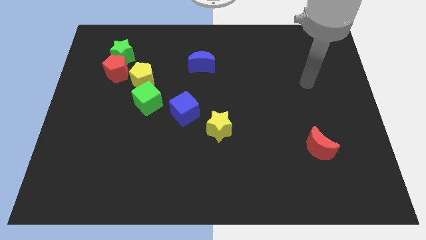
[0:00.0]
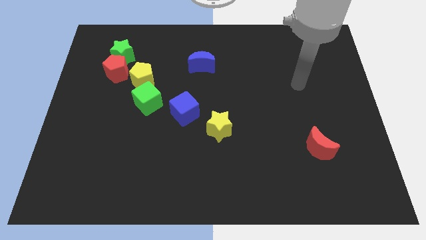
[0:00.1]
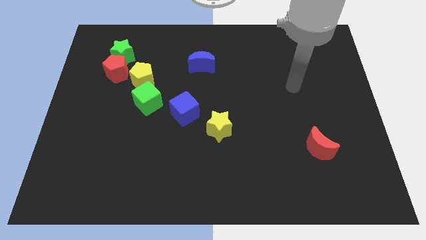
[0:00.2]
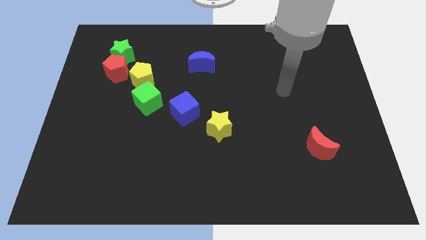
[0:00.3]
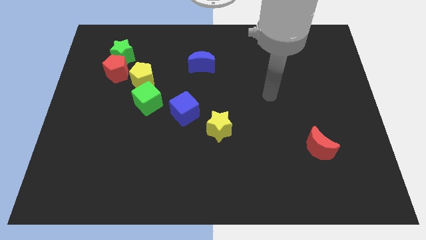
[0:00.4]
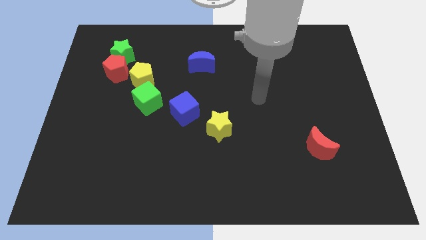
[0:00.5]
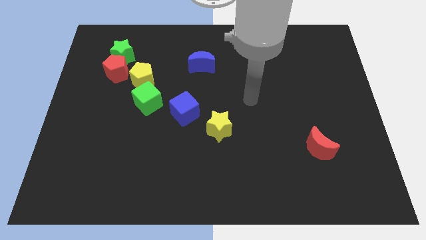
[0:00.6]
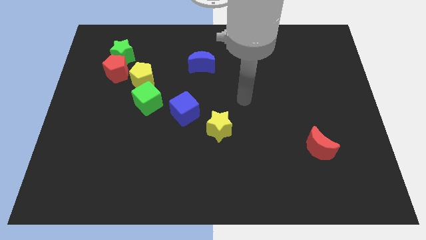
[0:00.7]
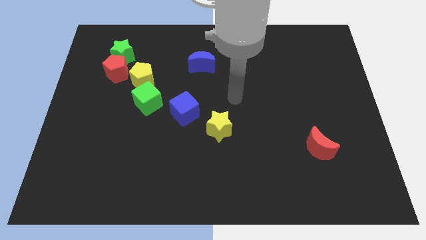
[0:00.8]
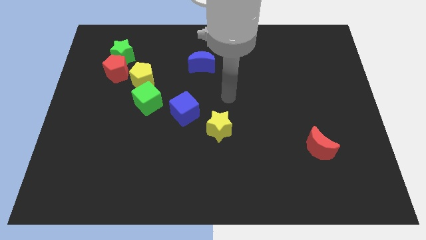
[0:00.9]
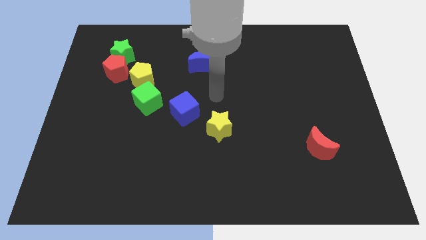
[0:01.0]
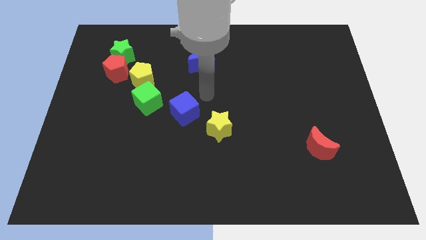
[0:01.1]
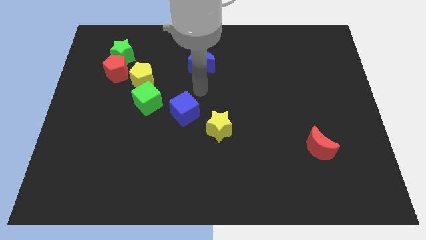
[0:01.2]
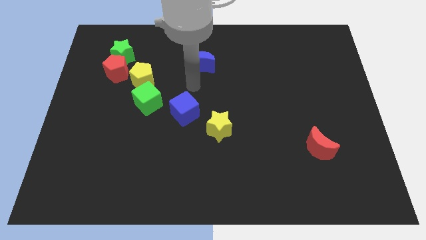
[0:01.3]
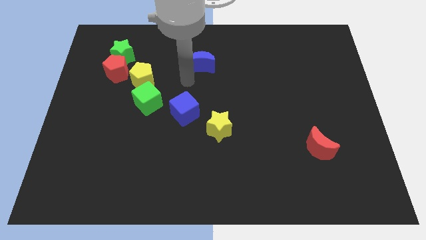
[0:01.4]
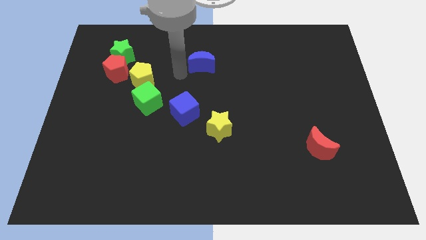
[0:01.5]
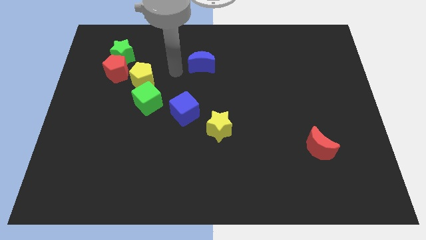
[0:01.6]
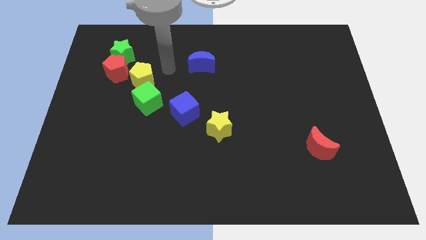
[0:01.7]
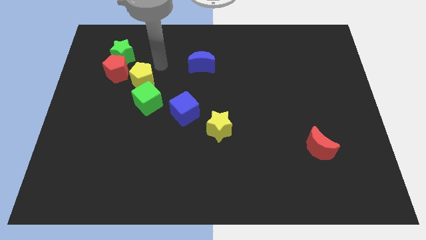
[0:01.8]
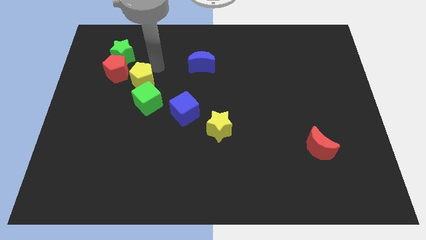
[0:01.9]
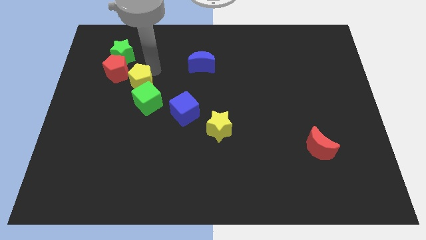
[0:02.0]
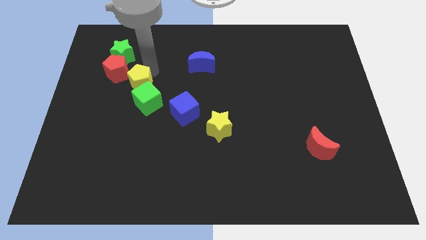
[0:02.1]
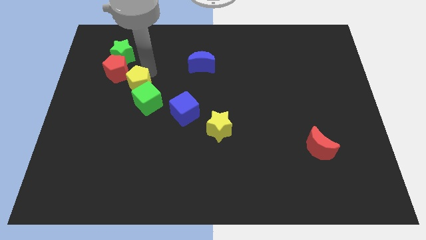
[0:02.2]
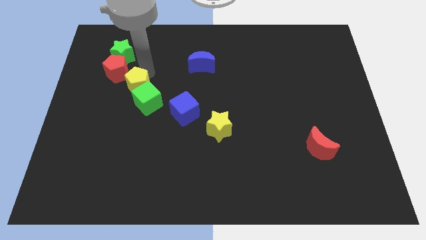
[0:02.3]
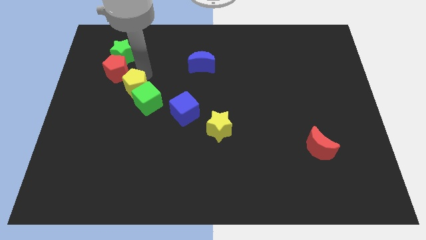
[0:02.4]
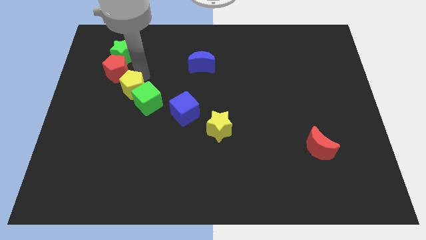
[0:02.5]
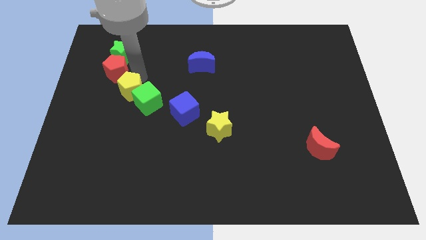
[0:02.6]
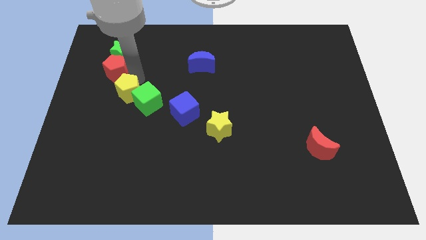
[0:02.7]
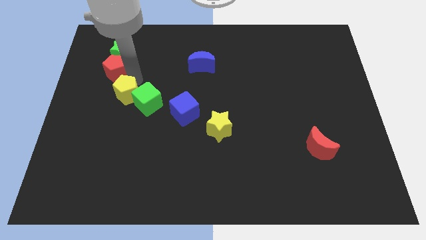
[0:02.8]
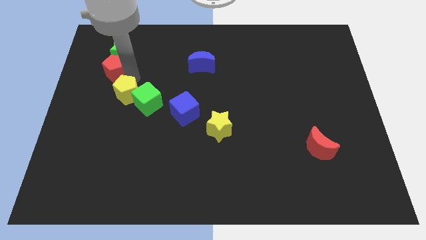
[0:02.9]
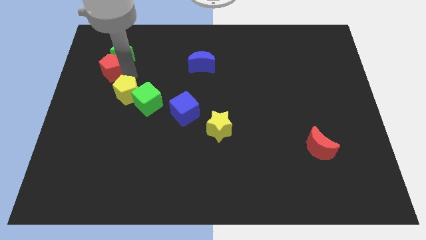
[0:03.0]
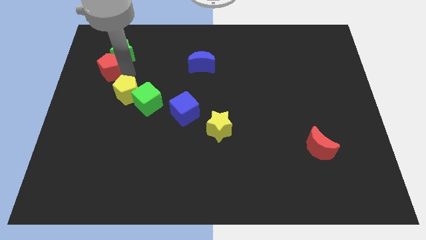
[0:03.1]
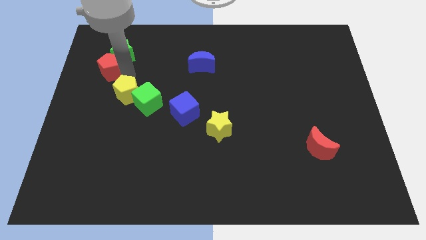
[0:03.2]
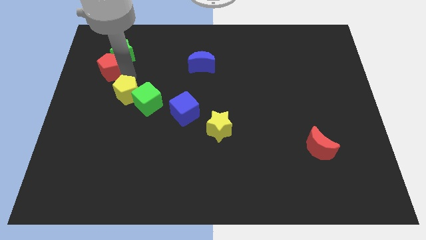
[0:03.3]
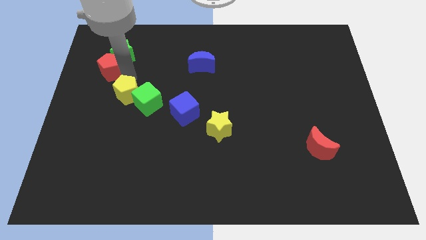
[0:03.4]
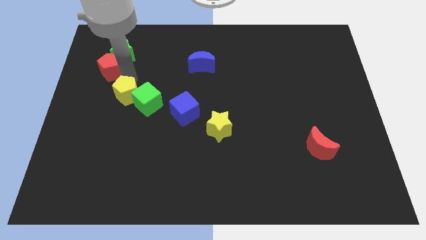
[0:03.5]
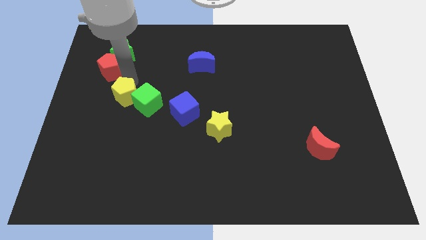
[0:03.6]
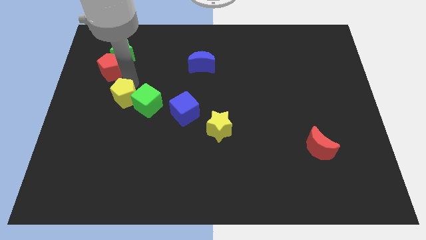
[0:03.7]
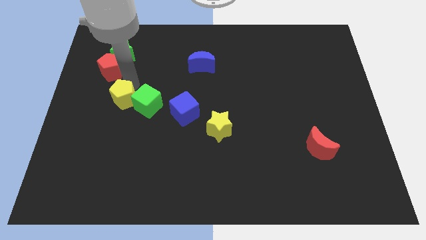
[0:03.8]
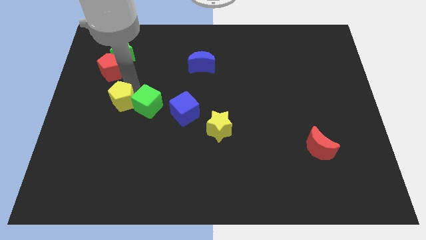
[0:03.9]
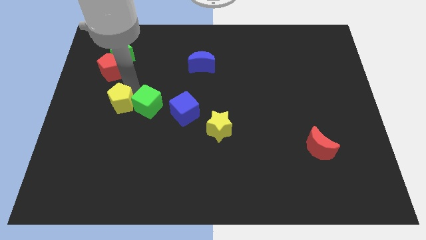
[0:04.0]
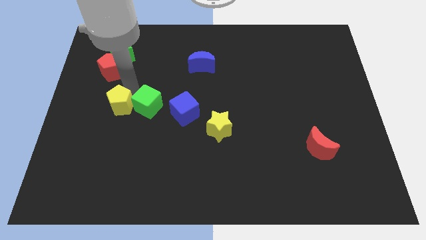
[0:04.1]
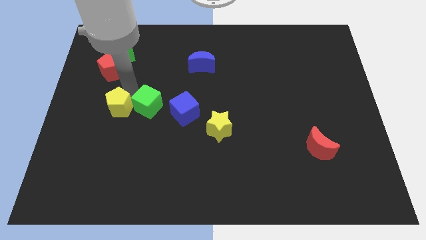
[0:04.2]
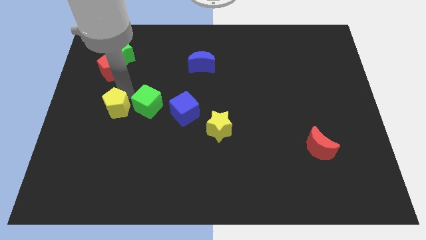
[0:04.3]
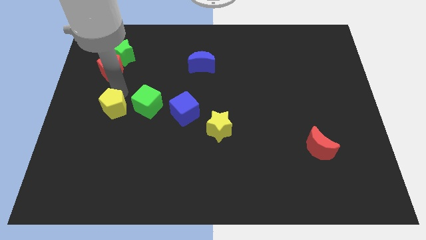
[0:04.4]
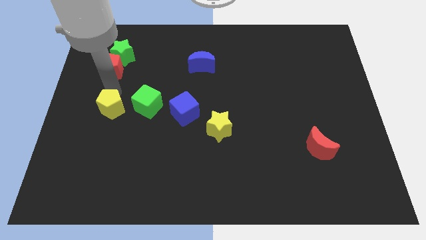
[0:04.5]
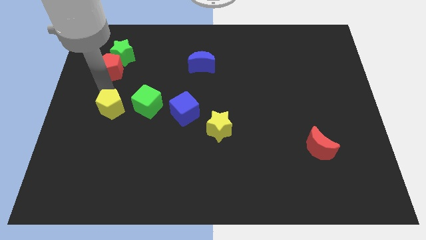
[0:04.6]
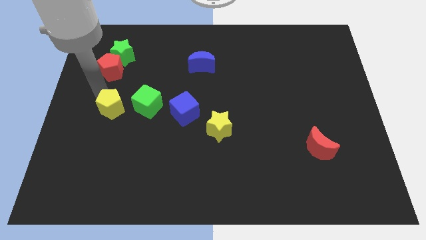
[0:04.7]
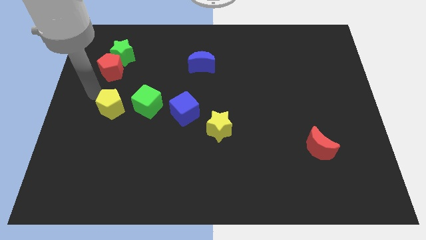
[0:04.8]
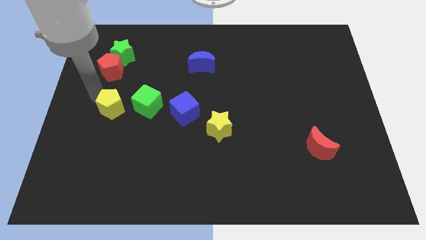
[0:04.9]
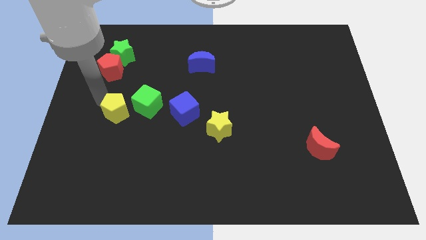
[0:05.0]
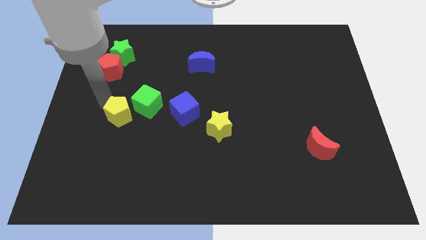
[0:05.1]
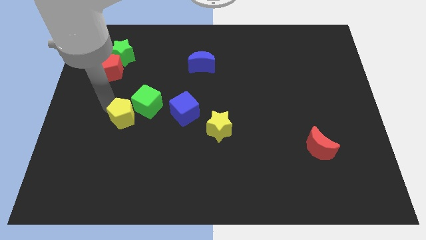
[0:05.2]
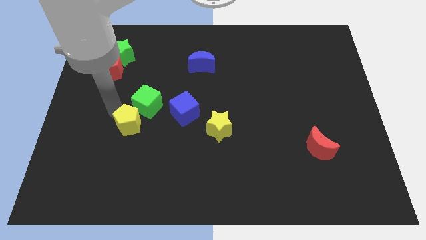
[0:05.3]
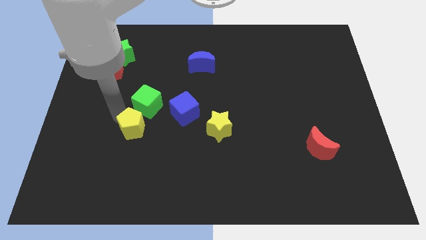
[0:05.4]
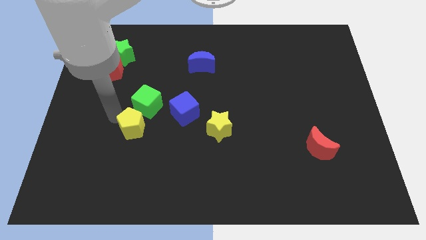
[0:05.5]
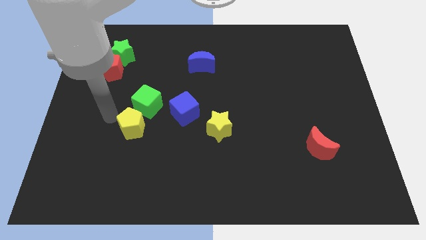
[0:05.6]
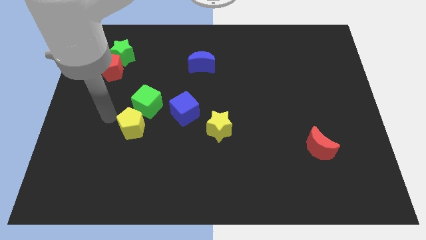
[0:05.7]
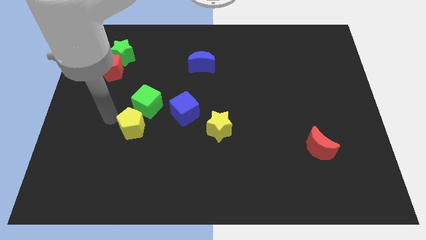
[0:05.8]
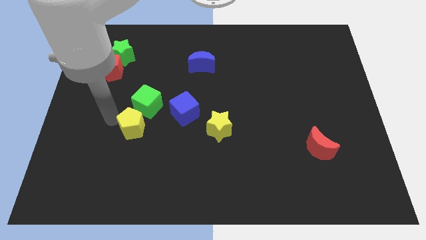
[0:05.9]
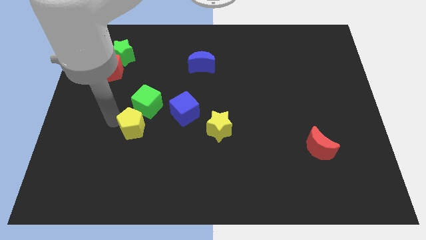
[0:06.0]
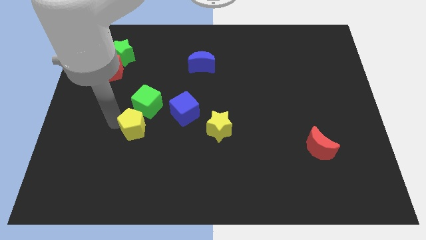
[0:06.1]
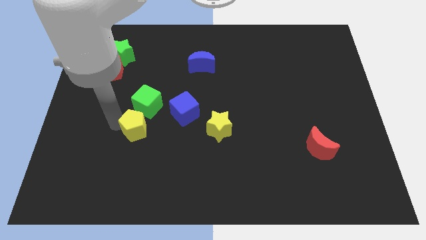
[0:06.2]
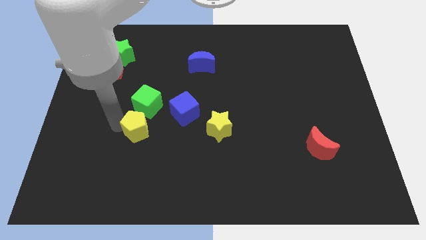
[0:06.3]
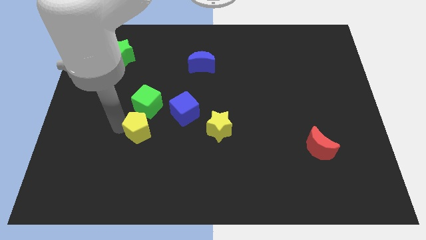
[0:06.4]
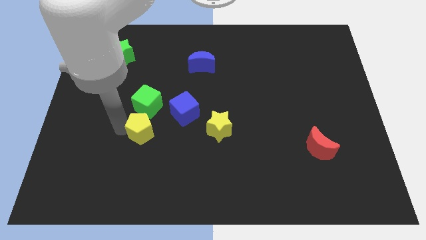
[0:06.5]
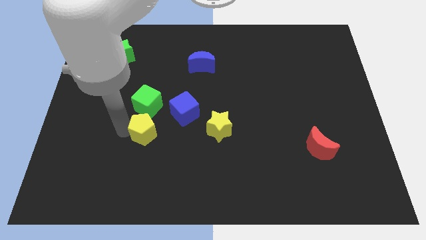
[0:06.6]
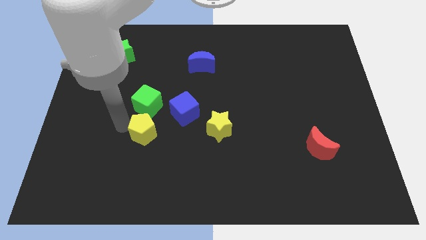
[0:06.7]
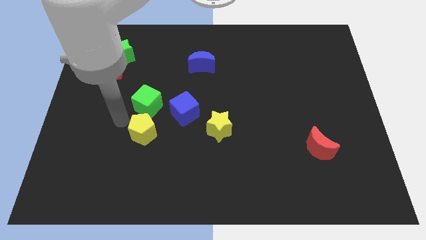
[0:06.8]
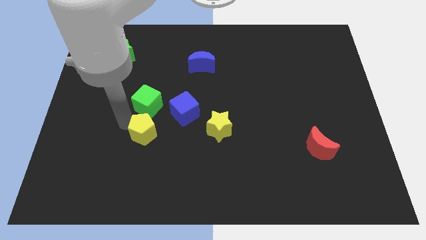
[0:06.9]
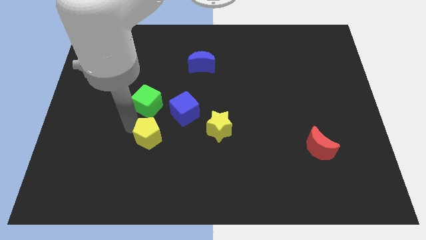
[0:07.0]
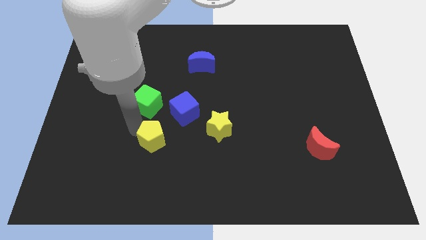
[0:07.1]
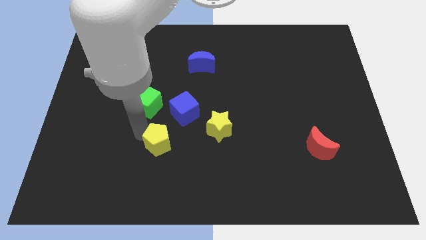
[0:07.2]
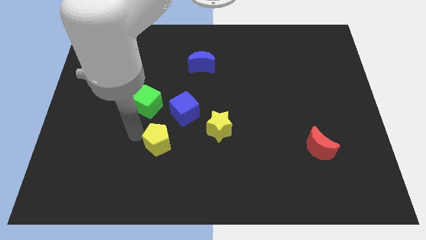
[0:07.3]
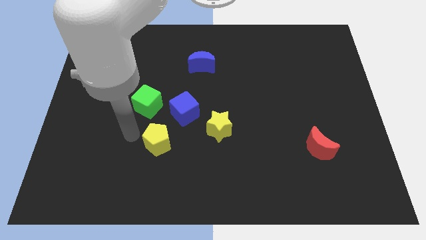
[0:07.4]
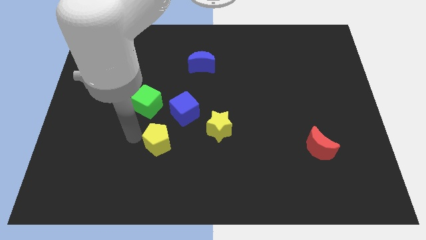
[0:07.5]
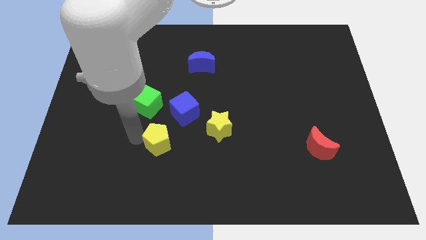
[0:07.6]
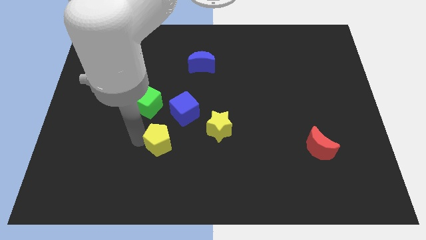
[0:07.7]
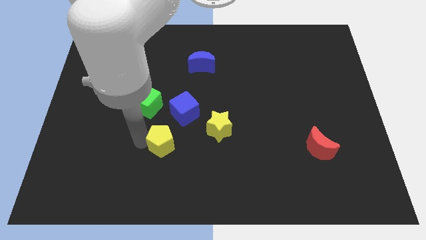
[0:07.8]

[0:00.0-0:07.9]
put the yellow pentagon to the bottom side of the blue cube
